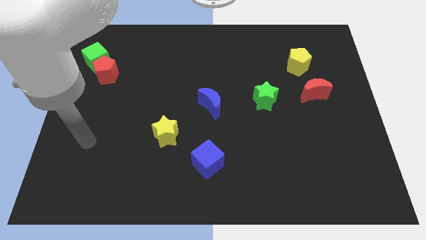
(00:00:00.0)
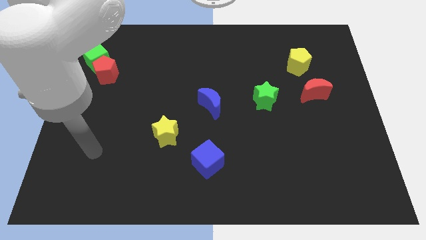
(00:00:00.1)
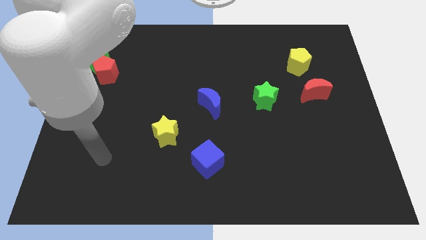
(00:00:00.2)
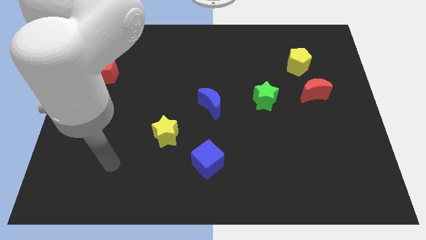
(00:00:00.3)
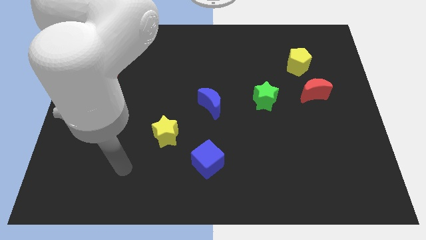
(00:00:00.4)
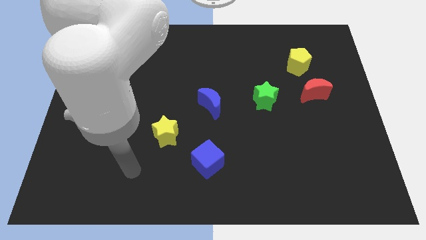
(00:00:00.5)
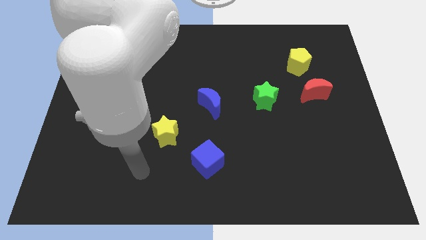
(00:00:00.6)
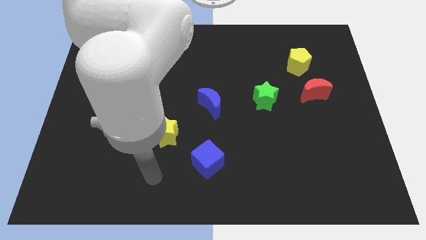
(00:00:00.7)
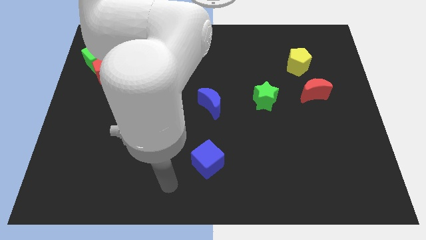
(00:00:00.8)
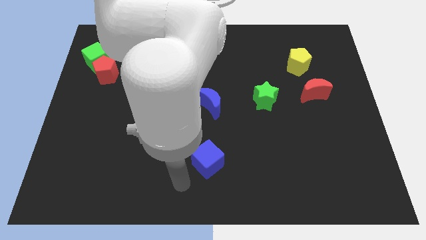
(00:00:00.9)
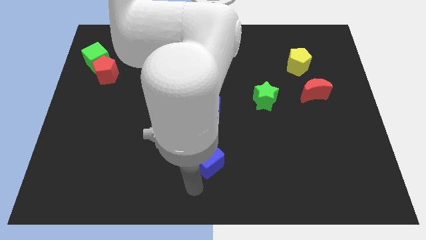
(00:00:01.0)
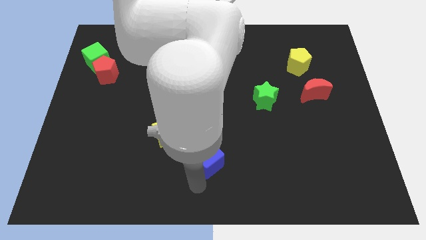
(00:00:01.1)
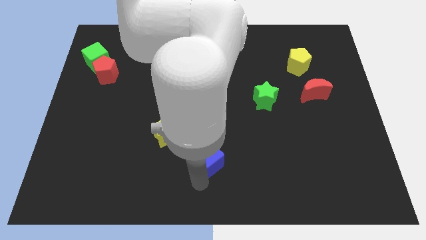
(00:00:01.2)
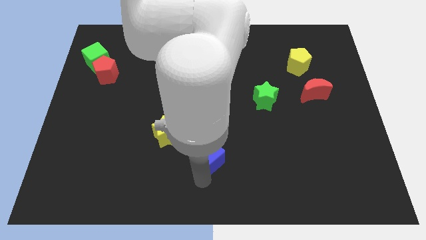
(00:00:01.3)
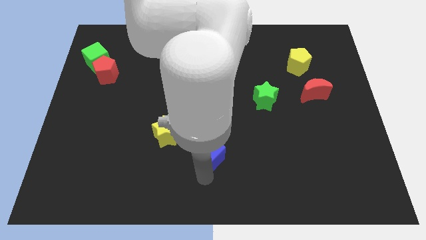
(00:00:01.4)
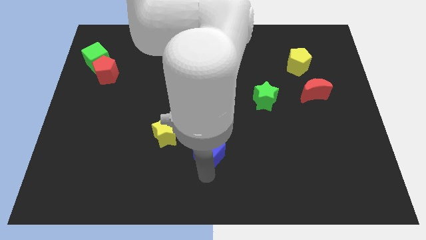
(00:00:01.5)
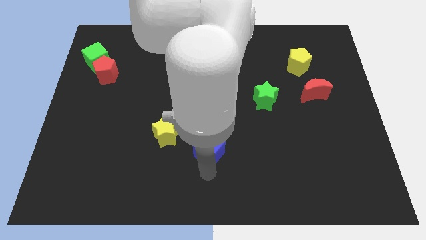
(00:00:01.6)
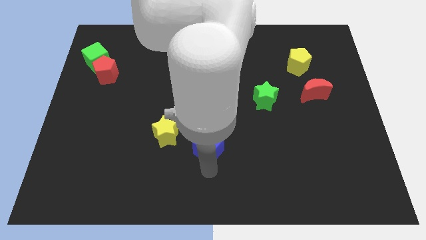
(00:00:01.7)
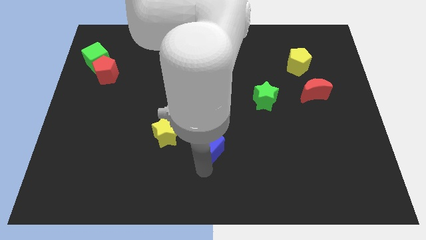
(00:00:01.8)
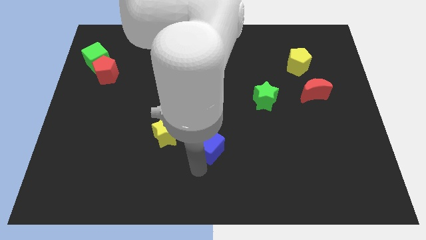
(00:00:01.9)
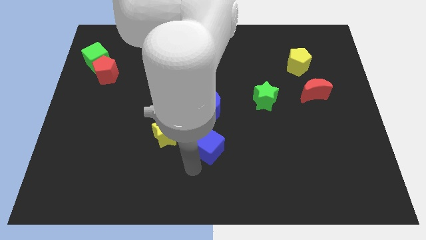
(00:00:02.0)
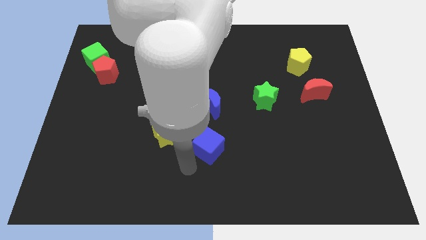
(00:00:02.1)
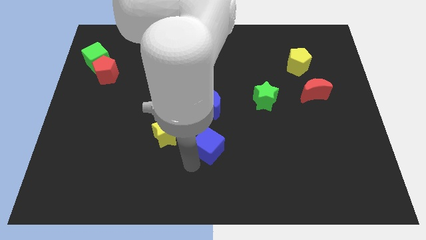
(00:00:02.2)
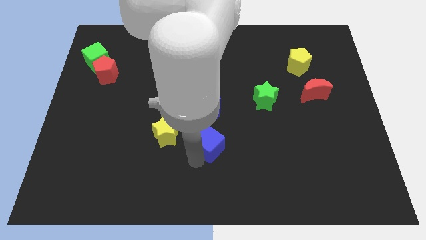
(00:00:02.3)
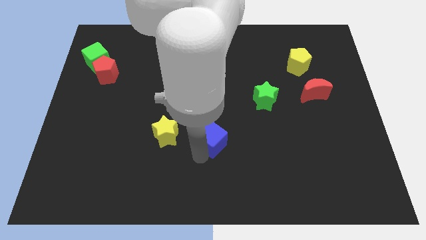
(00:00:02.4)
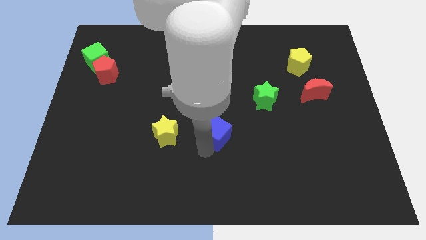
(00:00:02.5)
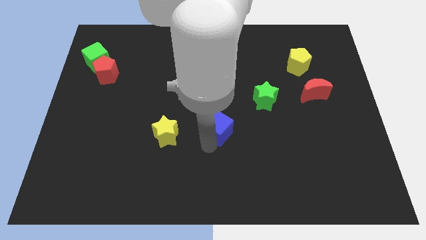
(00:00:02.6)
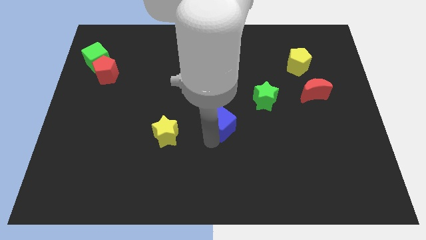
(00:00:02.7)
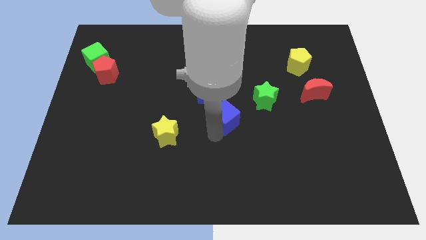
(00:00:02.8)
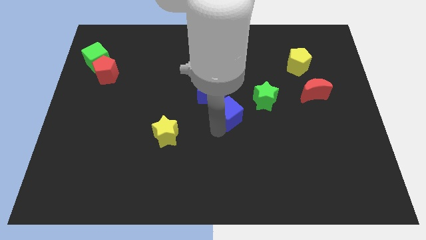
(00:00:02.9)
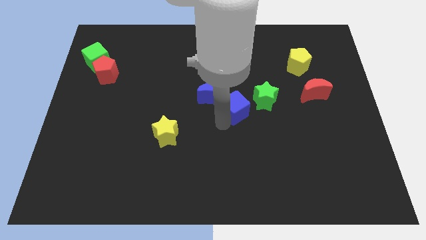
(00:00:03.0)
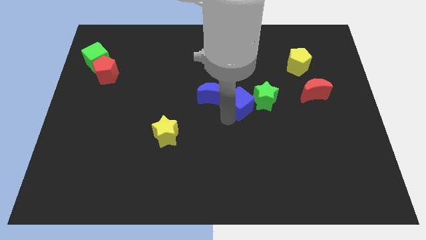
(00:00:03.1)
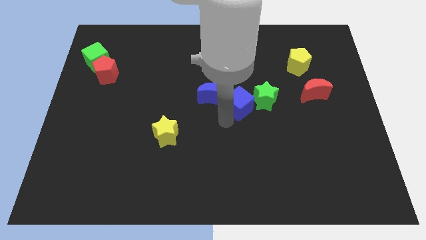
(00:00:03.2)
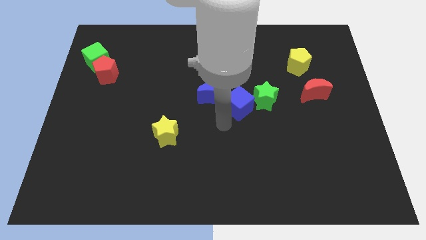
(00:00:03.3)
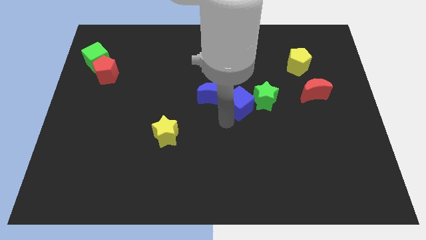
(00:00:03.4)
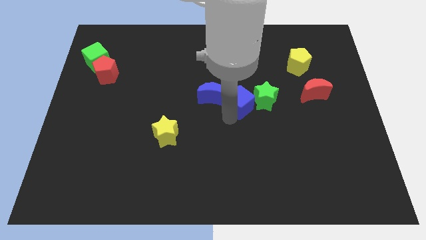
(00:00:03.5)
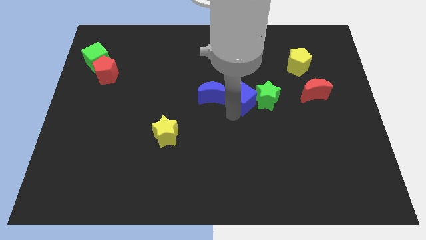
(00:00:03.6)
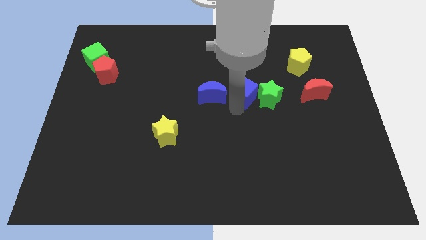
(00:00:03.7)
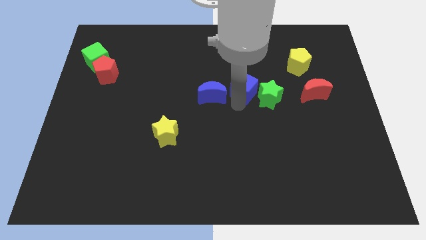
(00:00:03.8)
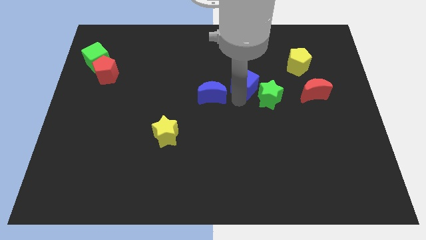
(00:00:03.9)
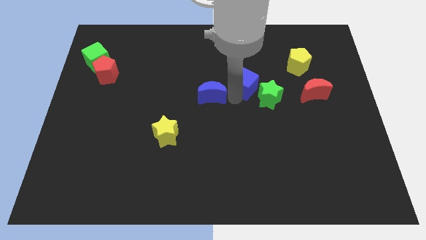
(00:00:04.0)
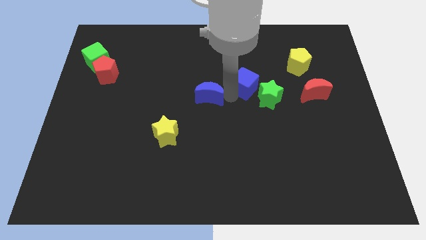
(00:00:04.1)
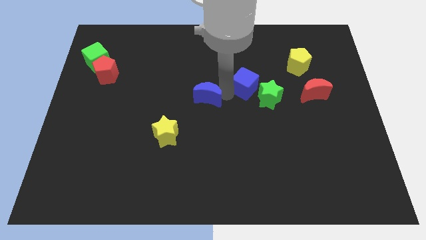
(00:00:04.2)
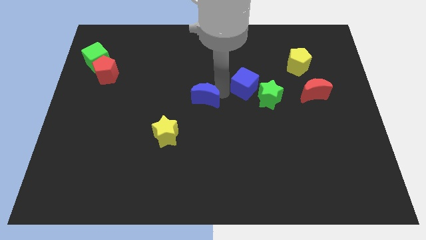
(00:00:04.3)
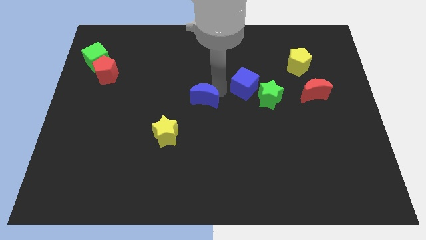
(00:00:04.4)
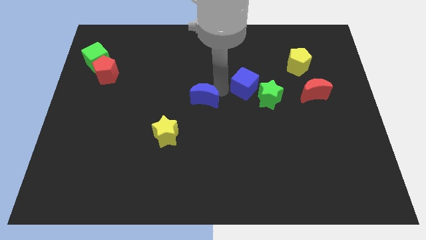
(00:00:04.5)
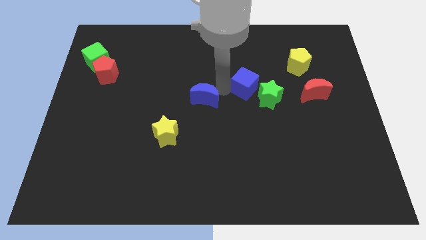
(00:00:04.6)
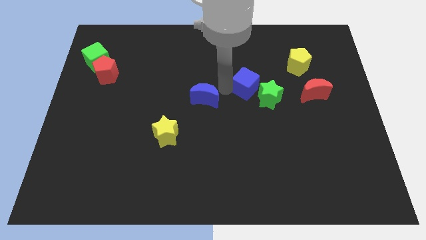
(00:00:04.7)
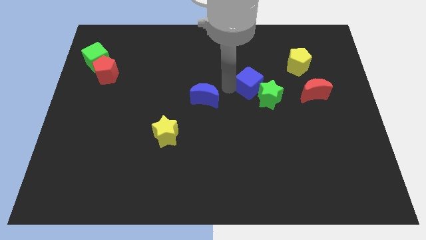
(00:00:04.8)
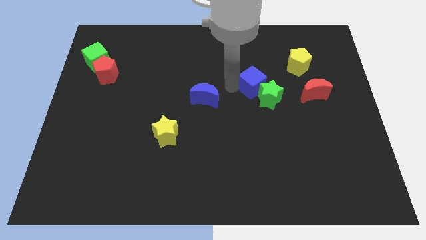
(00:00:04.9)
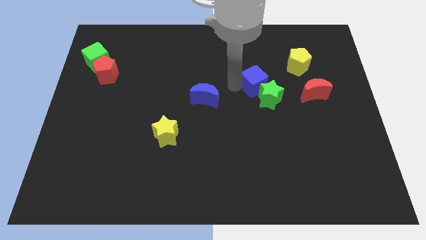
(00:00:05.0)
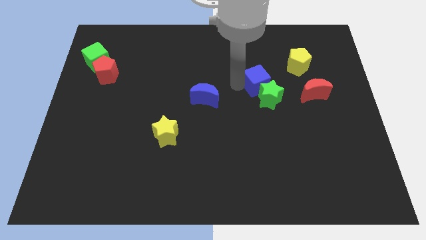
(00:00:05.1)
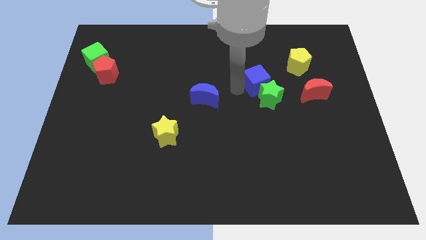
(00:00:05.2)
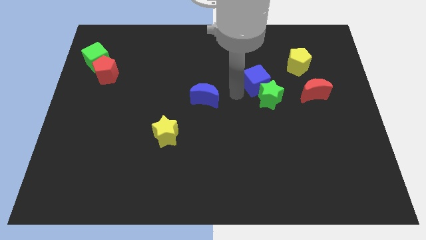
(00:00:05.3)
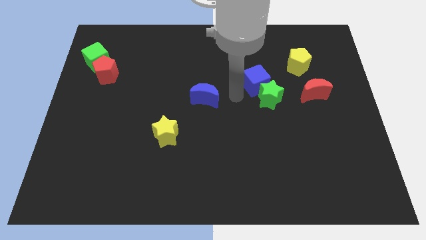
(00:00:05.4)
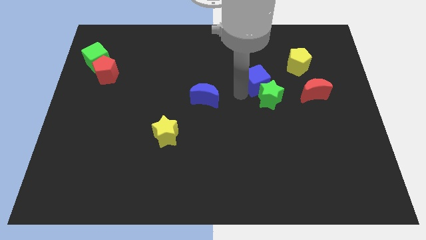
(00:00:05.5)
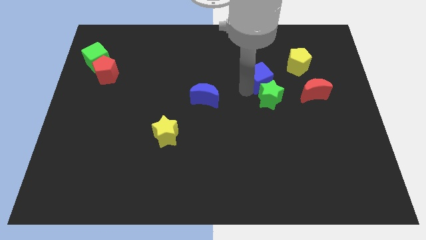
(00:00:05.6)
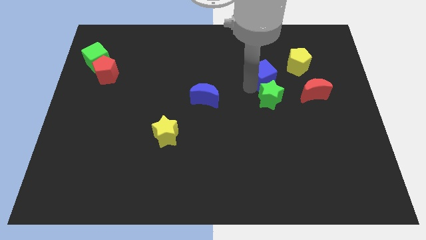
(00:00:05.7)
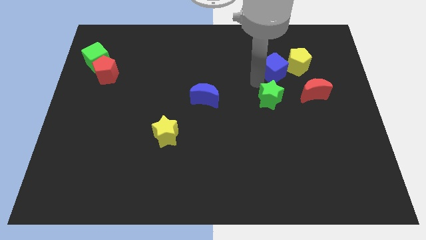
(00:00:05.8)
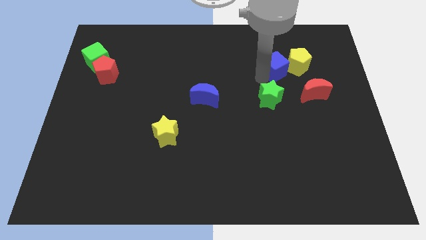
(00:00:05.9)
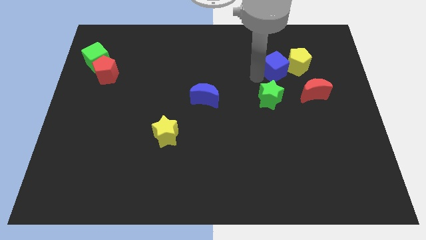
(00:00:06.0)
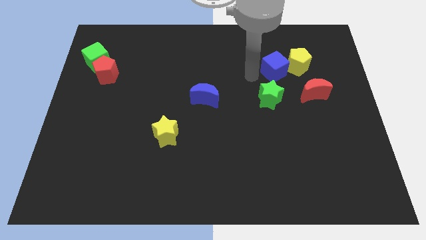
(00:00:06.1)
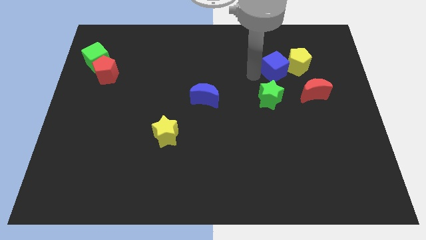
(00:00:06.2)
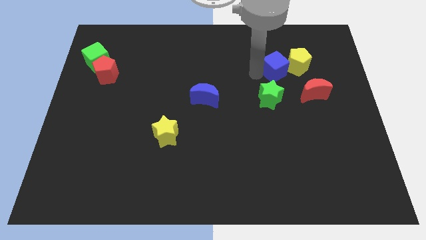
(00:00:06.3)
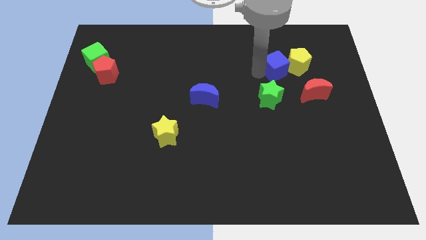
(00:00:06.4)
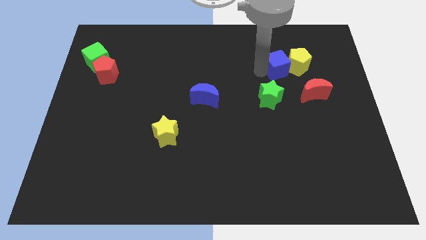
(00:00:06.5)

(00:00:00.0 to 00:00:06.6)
move the blue cube towards the yellow pentagon

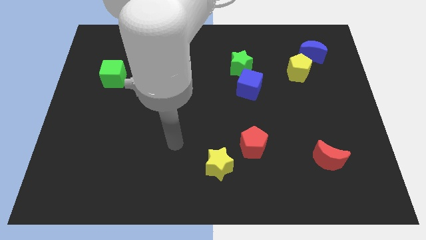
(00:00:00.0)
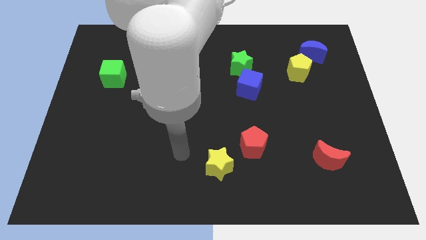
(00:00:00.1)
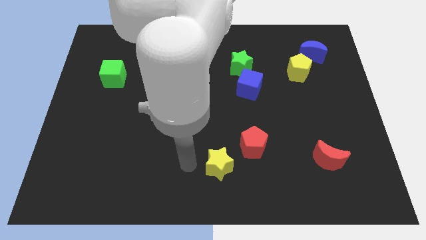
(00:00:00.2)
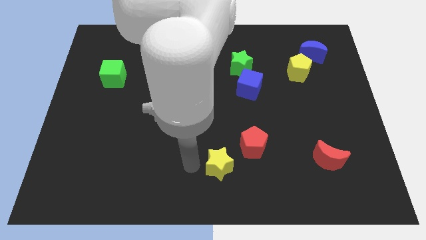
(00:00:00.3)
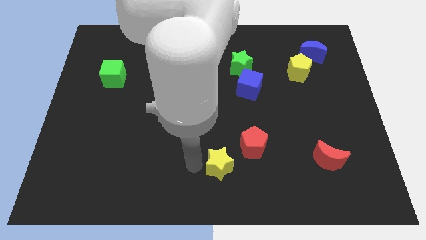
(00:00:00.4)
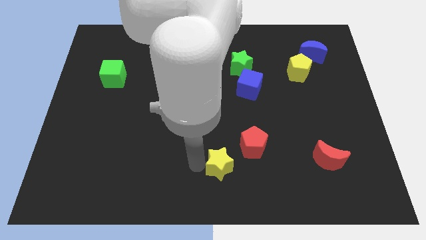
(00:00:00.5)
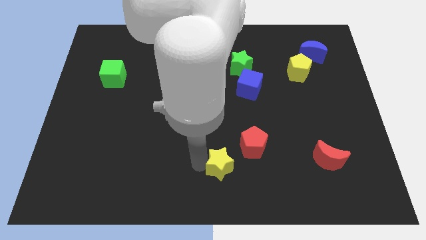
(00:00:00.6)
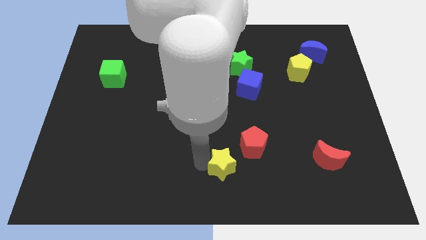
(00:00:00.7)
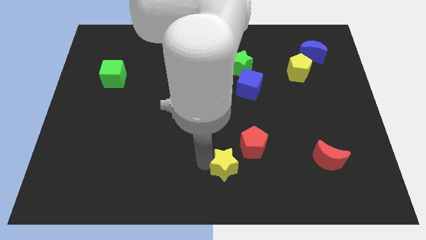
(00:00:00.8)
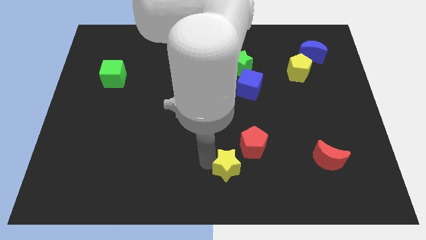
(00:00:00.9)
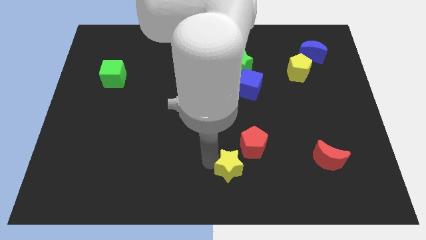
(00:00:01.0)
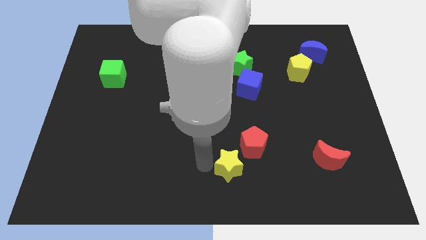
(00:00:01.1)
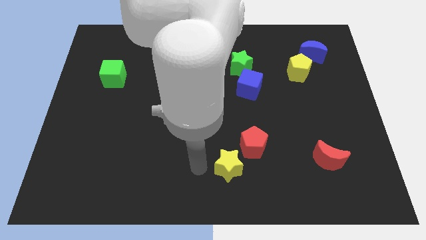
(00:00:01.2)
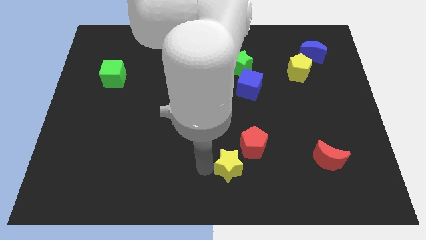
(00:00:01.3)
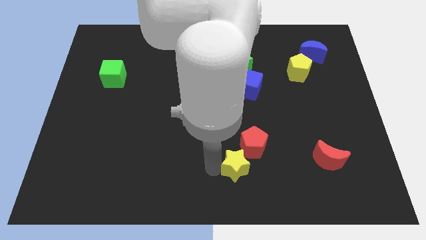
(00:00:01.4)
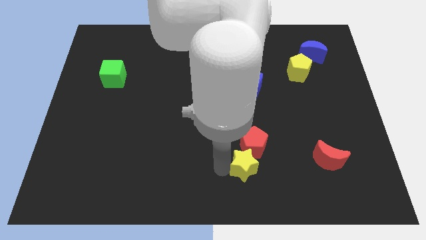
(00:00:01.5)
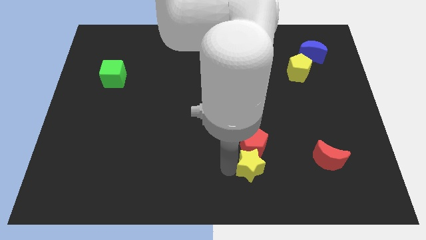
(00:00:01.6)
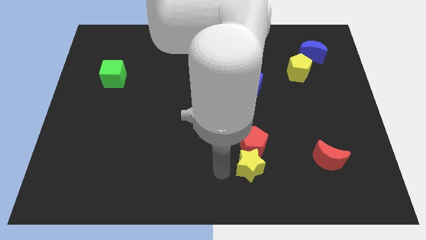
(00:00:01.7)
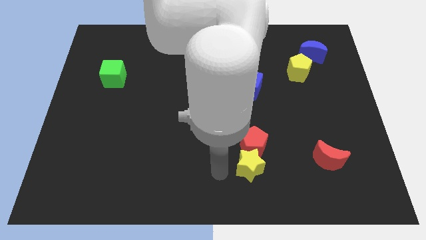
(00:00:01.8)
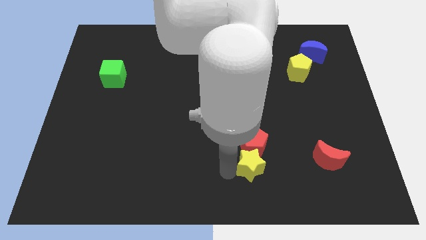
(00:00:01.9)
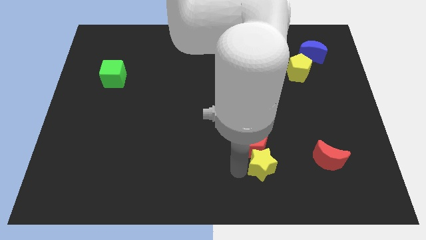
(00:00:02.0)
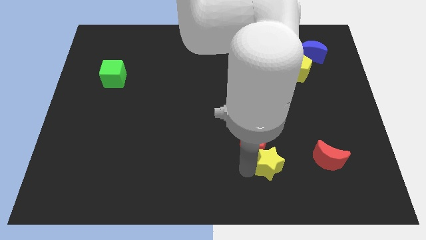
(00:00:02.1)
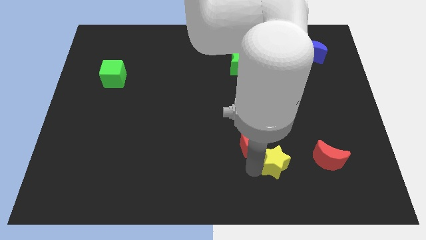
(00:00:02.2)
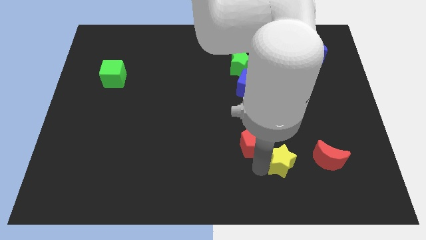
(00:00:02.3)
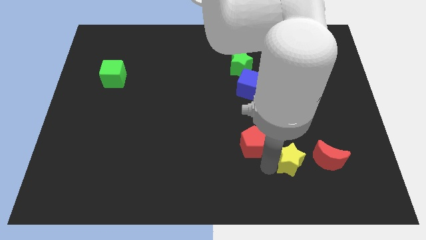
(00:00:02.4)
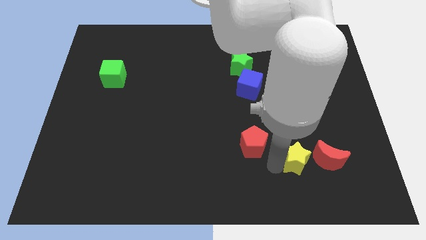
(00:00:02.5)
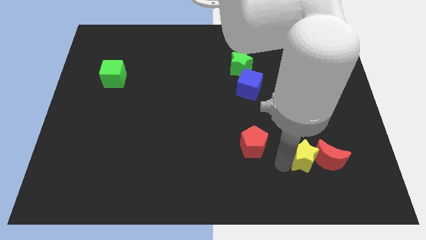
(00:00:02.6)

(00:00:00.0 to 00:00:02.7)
put the yellow star to the red moon
